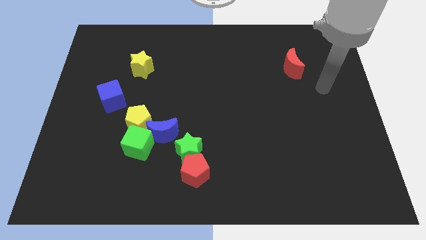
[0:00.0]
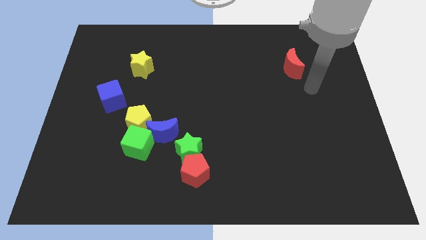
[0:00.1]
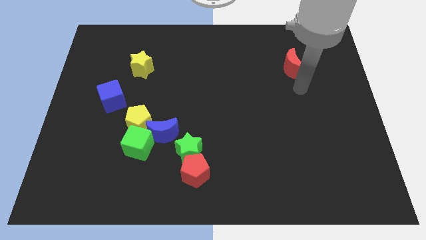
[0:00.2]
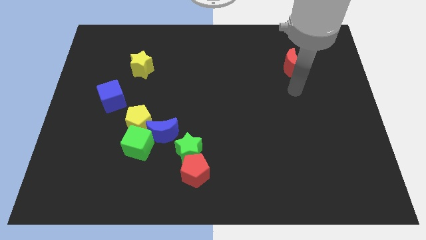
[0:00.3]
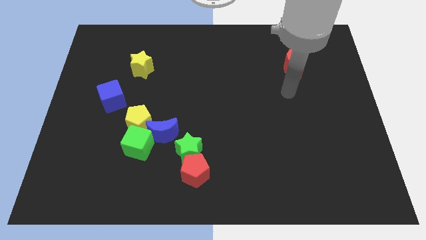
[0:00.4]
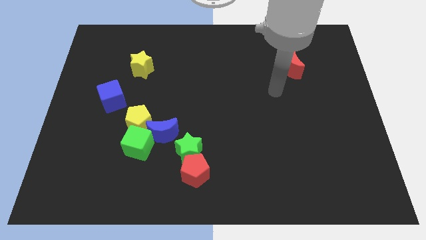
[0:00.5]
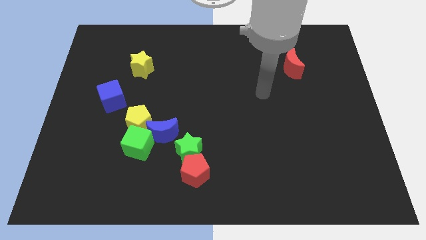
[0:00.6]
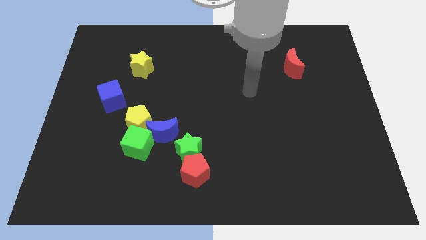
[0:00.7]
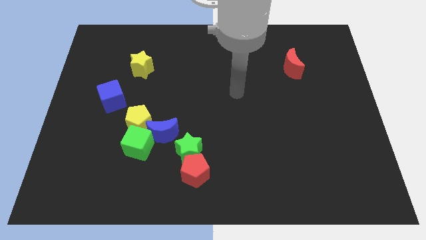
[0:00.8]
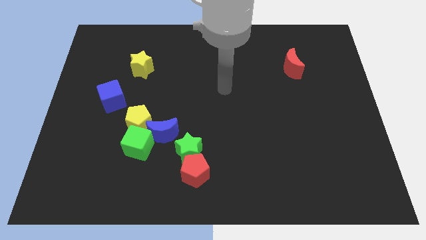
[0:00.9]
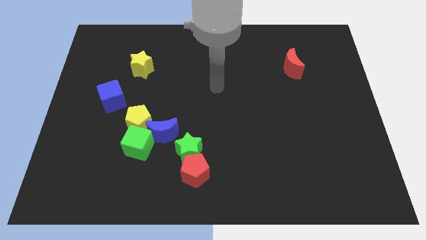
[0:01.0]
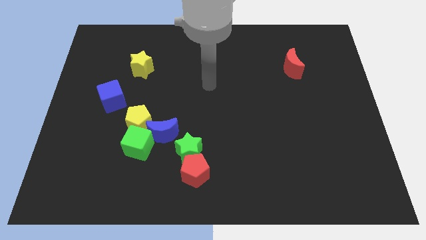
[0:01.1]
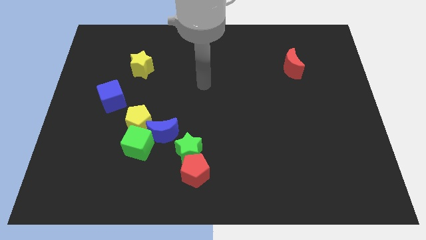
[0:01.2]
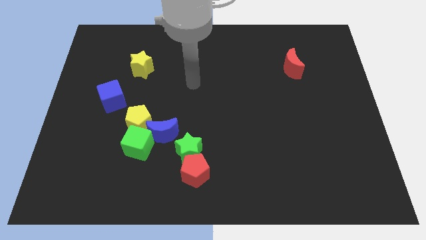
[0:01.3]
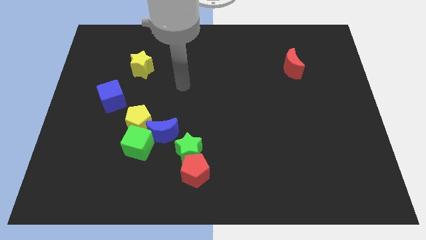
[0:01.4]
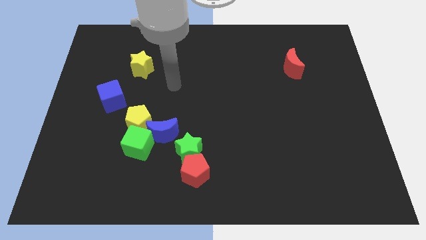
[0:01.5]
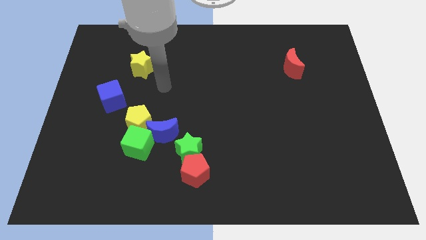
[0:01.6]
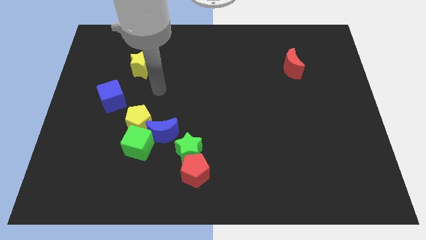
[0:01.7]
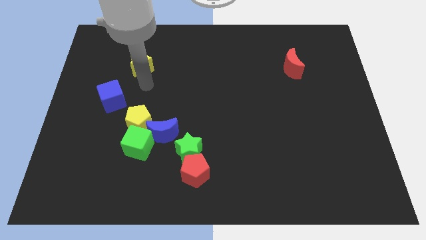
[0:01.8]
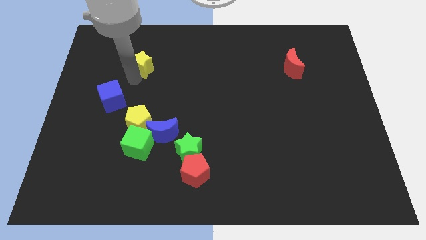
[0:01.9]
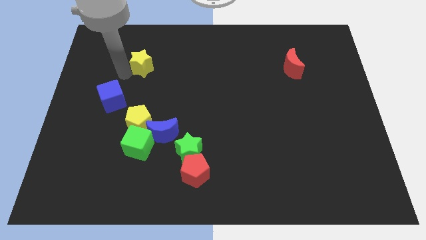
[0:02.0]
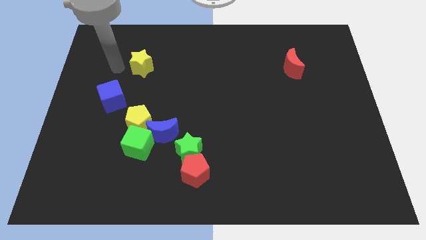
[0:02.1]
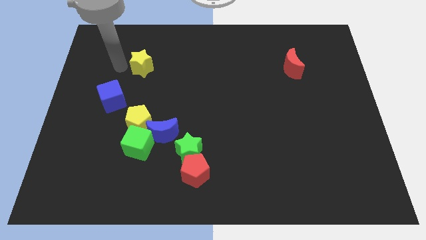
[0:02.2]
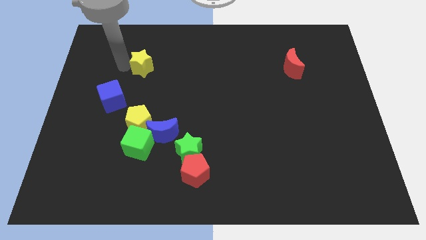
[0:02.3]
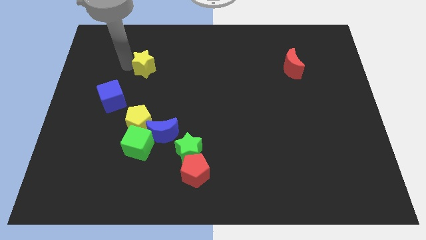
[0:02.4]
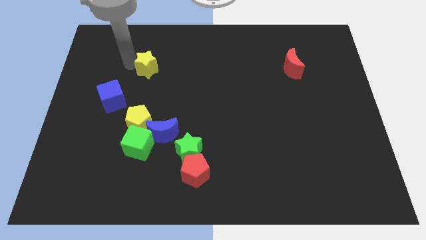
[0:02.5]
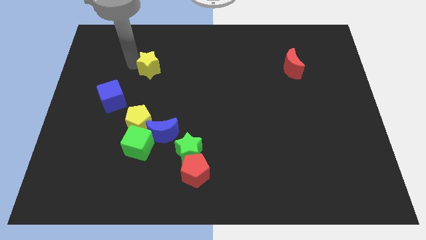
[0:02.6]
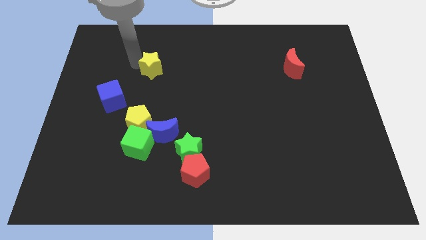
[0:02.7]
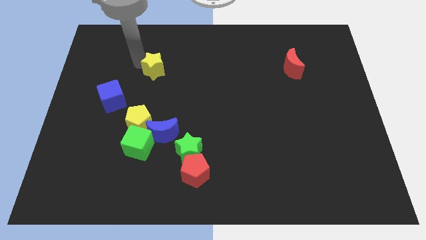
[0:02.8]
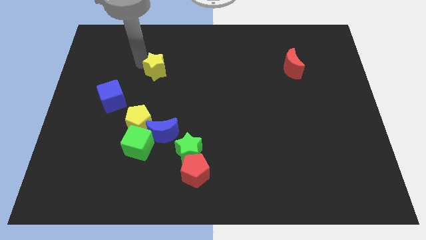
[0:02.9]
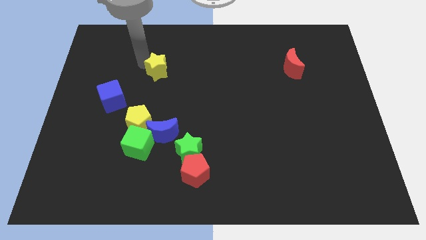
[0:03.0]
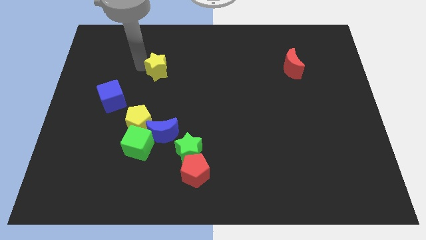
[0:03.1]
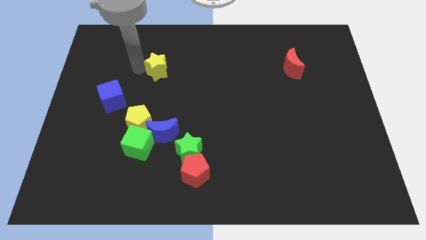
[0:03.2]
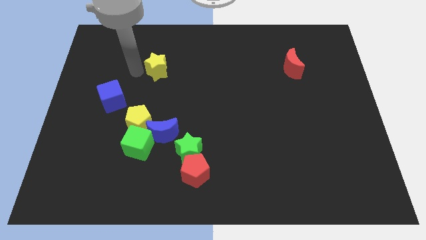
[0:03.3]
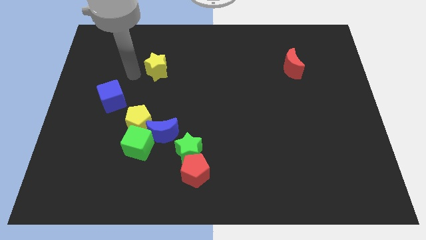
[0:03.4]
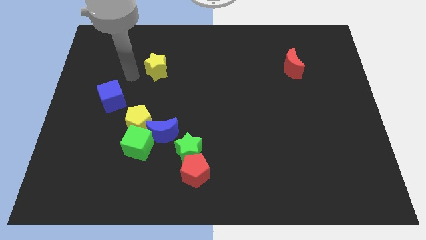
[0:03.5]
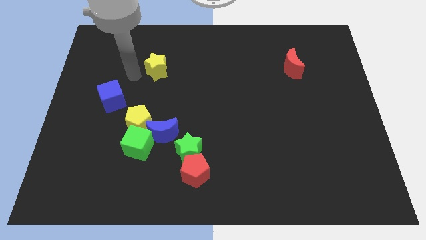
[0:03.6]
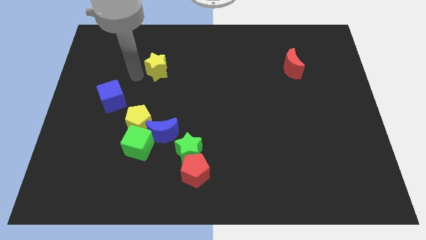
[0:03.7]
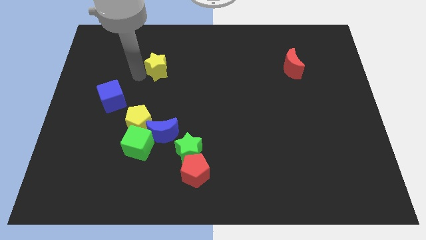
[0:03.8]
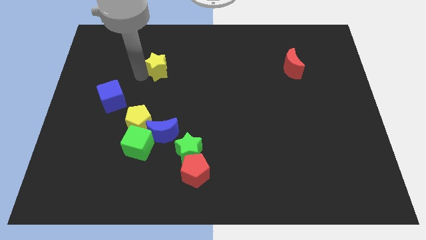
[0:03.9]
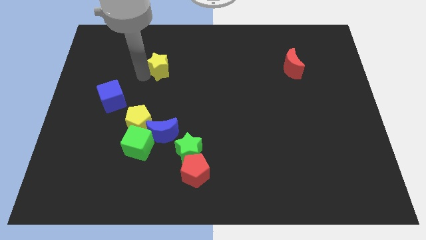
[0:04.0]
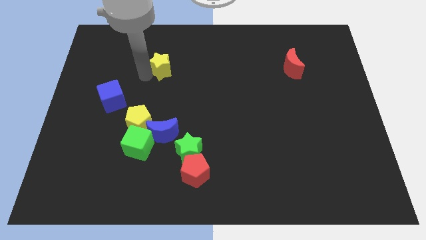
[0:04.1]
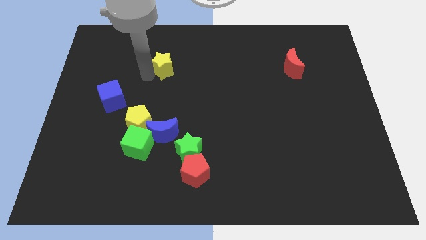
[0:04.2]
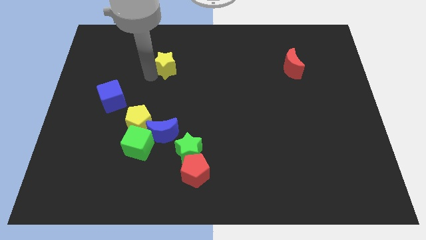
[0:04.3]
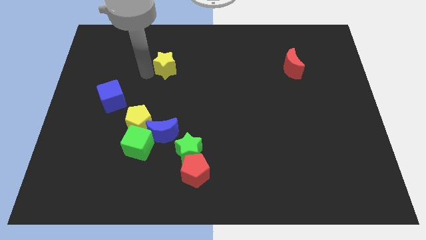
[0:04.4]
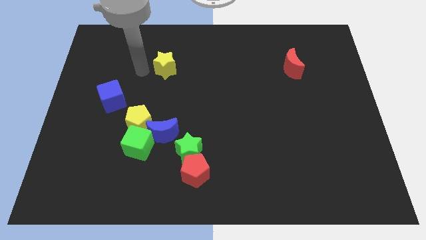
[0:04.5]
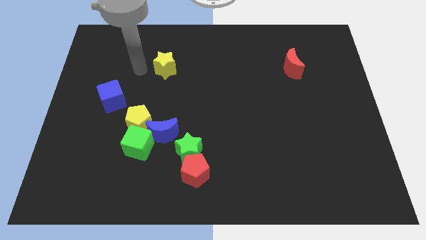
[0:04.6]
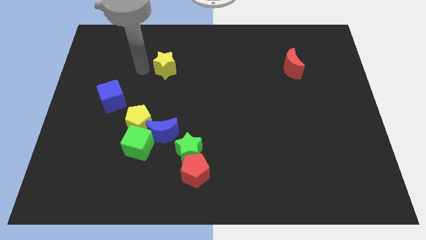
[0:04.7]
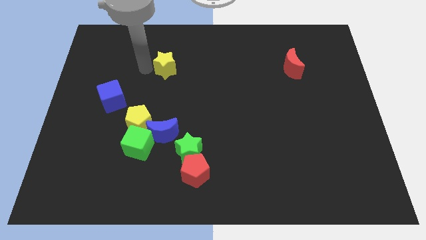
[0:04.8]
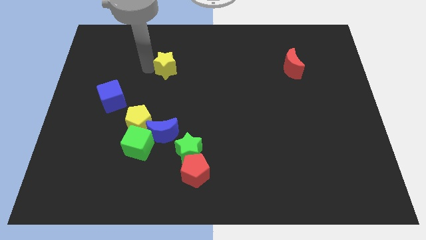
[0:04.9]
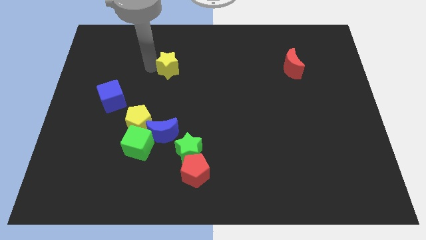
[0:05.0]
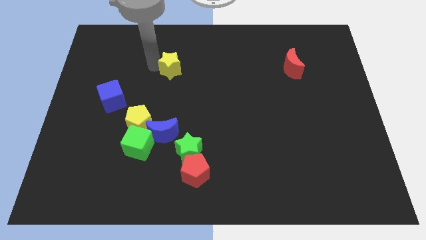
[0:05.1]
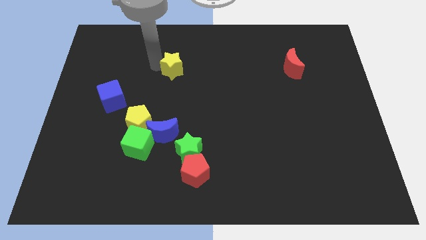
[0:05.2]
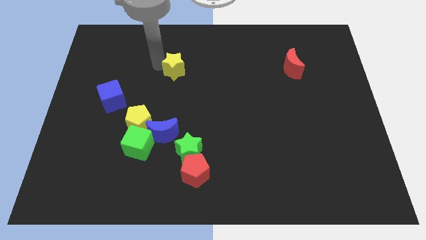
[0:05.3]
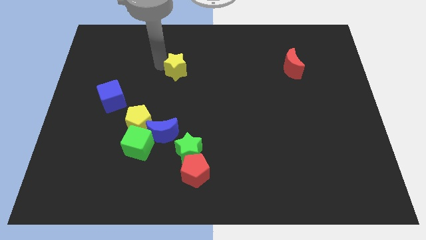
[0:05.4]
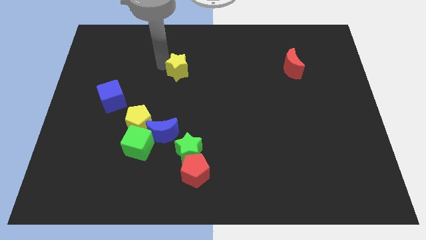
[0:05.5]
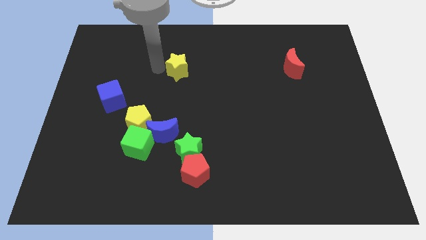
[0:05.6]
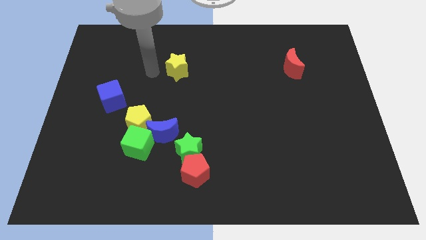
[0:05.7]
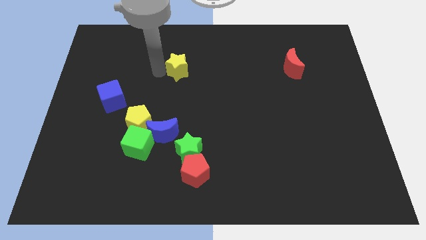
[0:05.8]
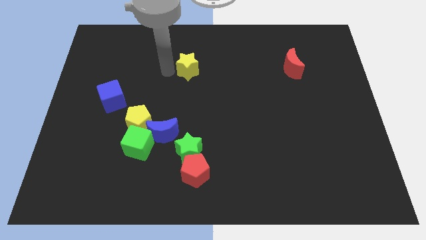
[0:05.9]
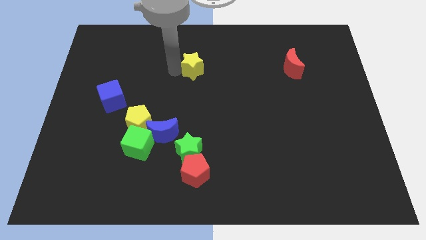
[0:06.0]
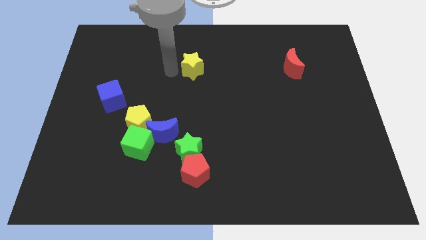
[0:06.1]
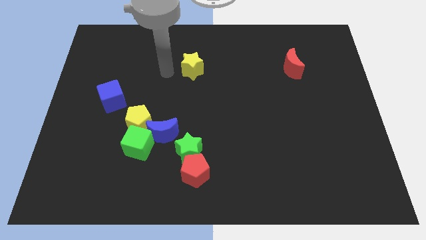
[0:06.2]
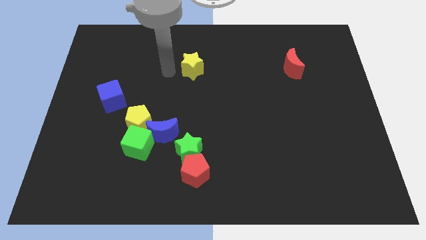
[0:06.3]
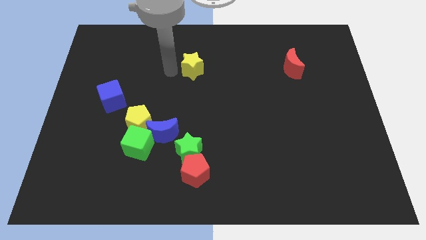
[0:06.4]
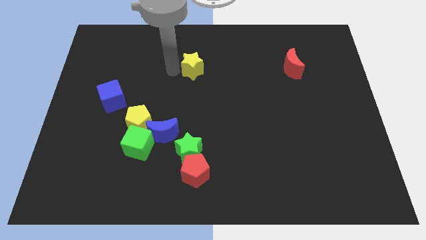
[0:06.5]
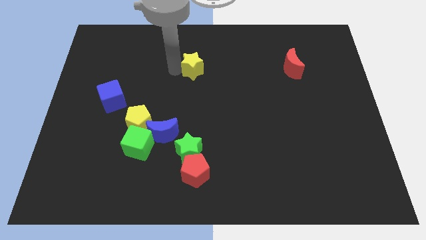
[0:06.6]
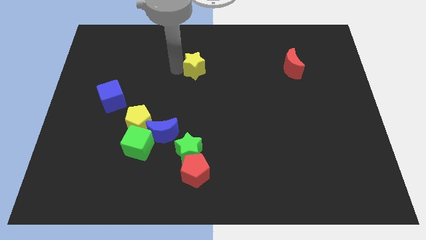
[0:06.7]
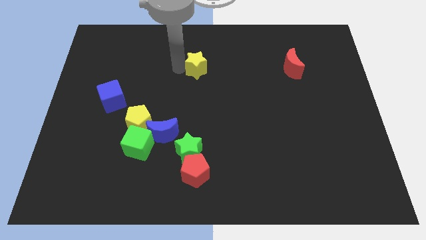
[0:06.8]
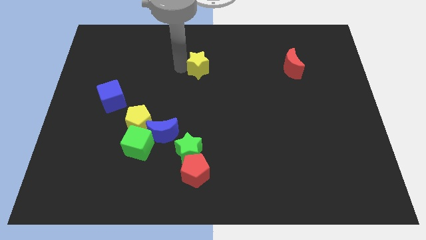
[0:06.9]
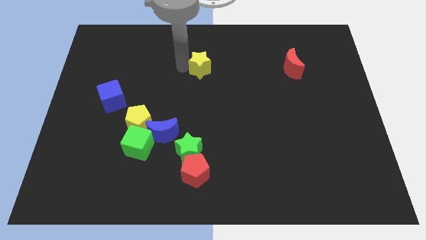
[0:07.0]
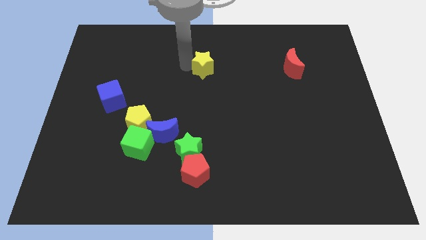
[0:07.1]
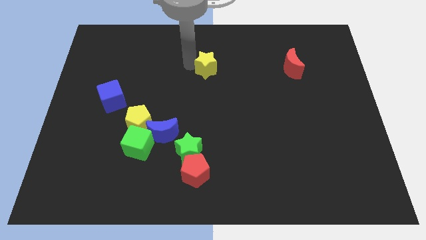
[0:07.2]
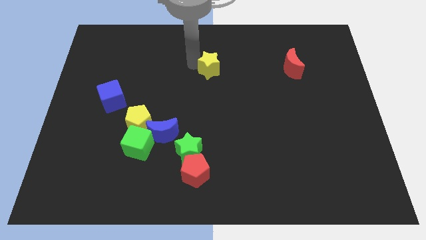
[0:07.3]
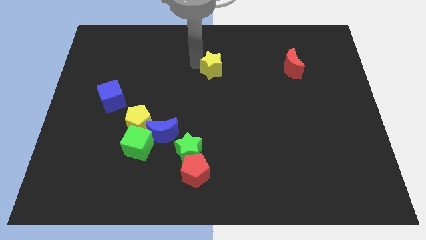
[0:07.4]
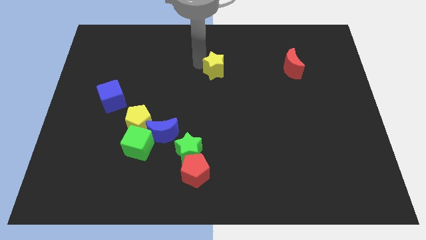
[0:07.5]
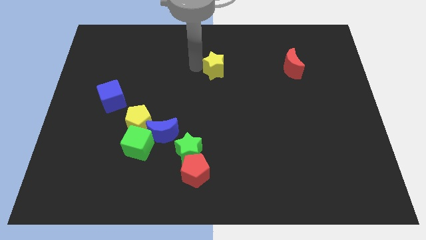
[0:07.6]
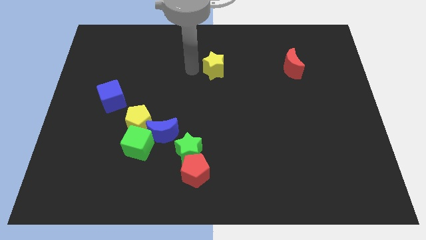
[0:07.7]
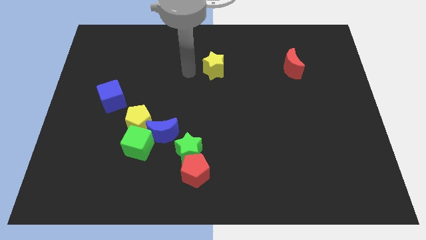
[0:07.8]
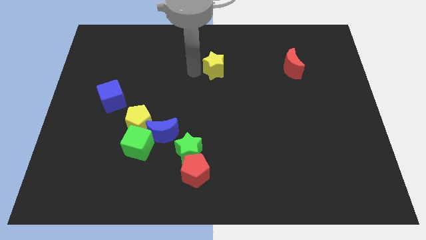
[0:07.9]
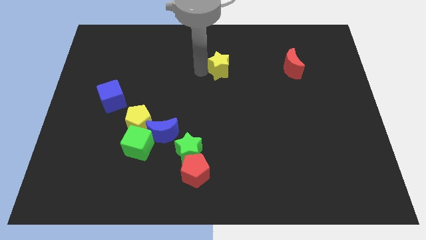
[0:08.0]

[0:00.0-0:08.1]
push the yellow star right
